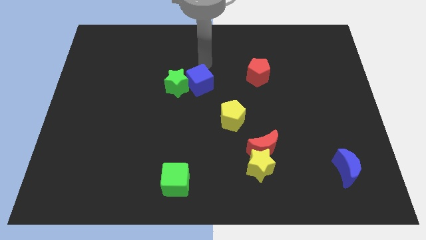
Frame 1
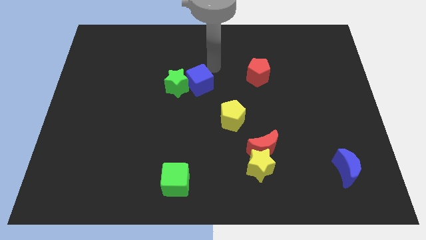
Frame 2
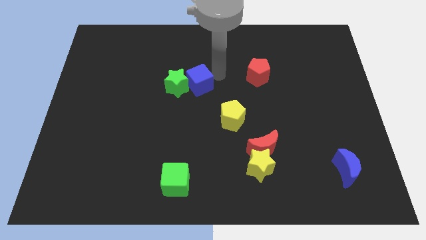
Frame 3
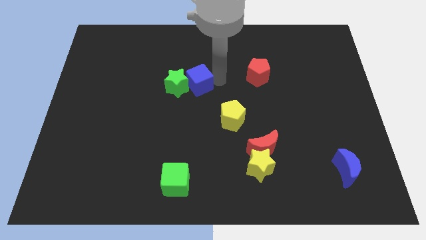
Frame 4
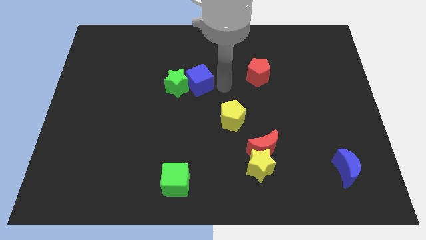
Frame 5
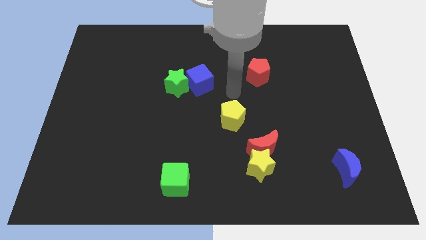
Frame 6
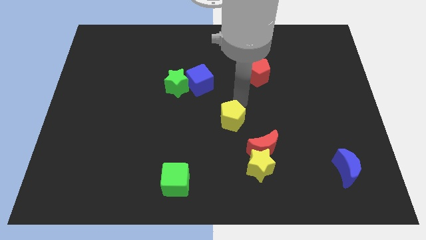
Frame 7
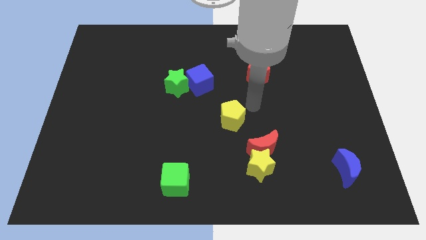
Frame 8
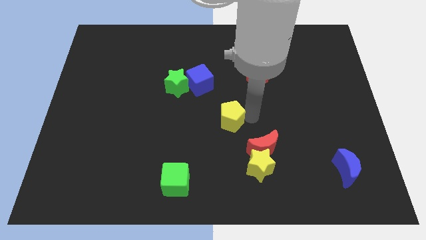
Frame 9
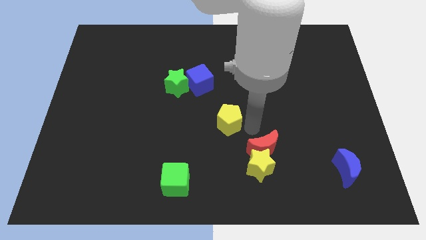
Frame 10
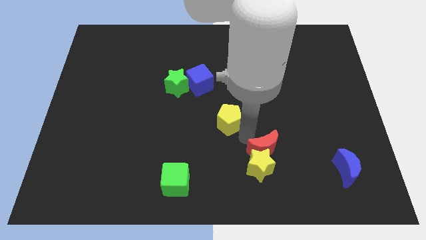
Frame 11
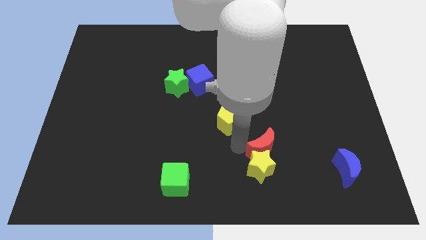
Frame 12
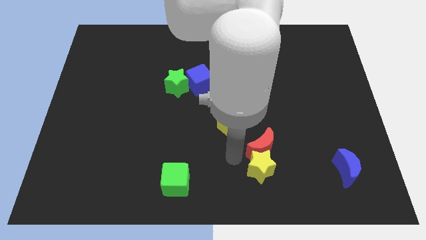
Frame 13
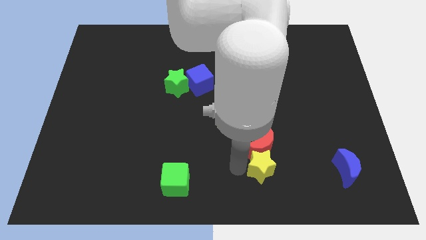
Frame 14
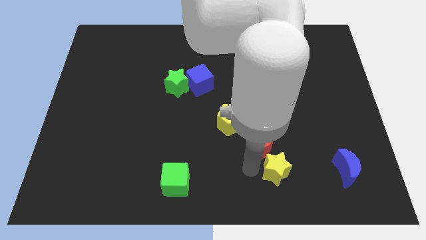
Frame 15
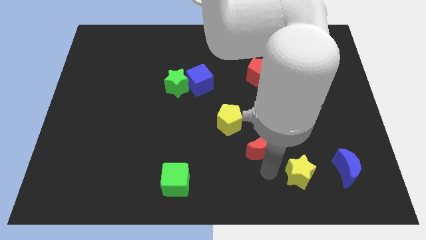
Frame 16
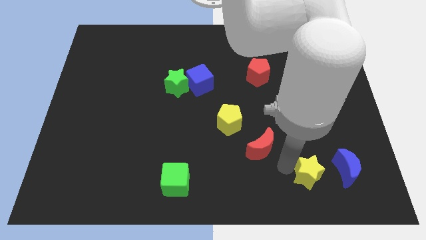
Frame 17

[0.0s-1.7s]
separate the red moon from the yellow star

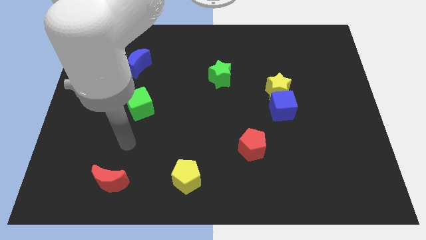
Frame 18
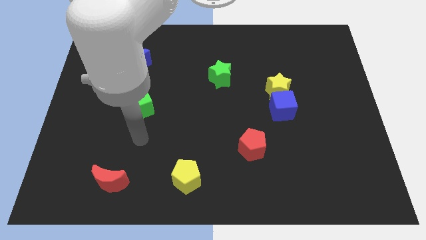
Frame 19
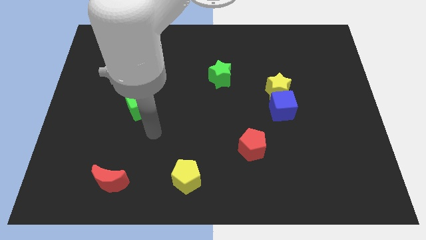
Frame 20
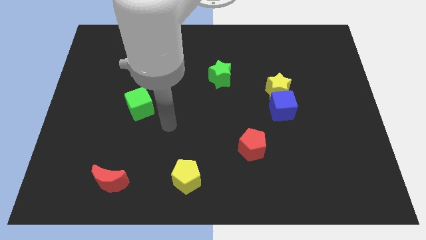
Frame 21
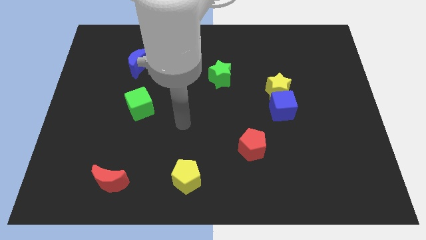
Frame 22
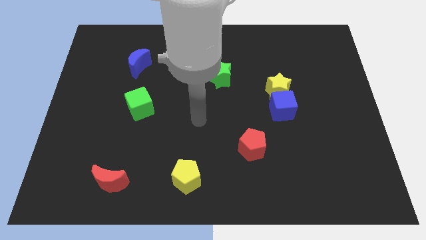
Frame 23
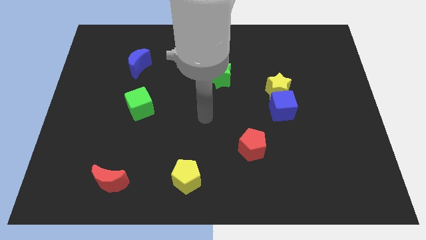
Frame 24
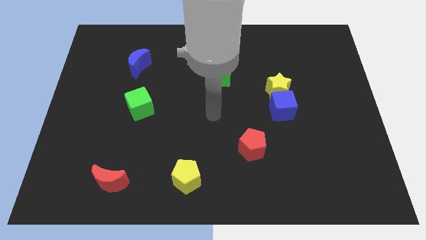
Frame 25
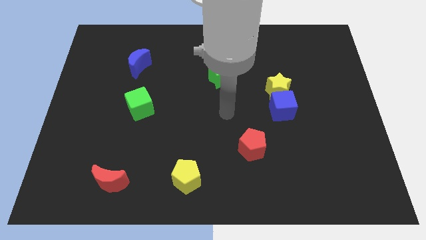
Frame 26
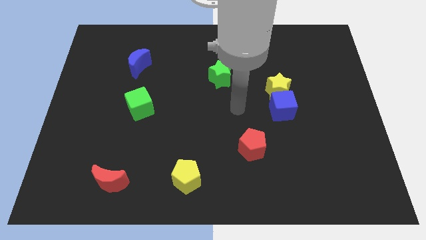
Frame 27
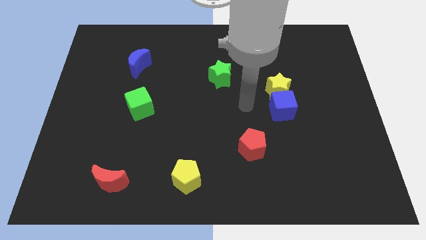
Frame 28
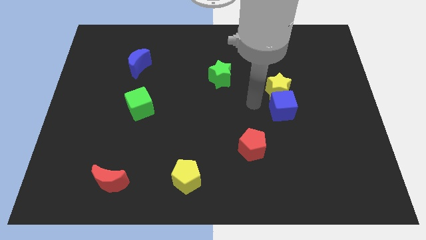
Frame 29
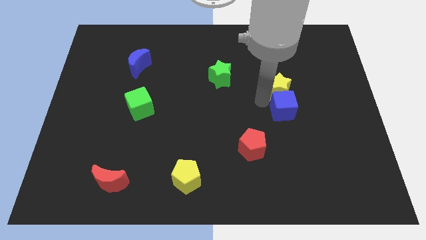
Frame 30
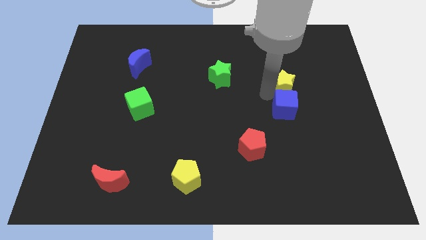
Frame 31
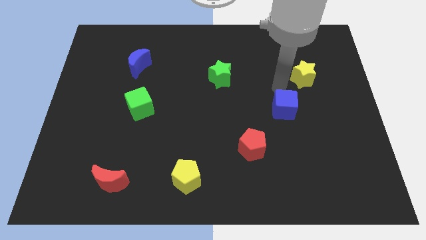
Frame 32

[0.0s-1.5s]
pull the blue cube apart from the yellow star

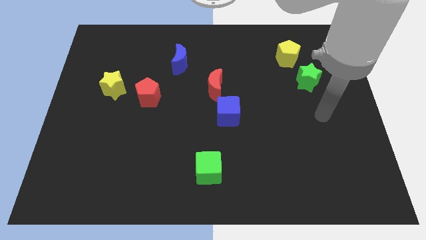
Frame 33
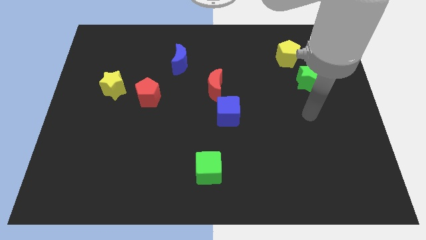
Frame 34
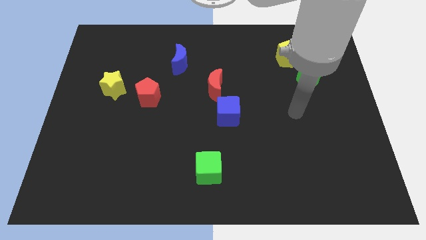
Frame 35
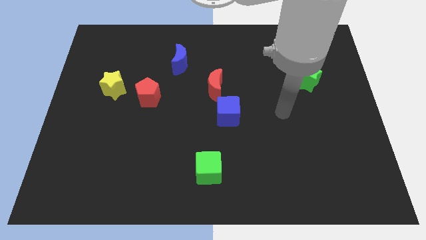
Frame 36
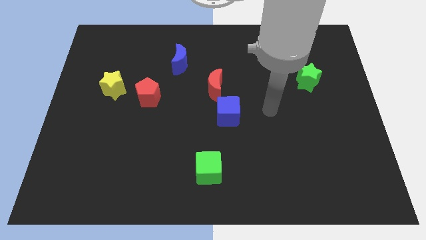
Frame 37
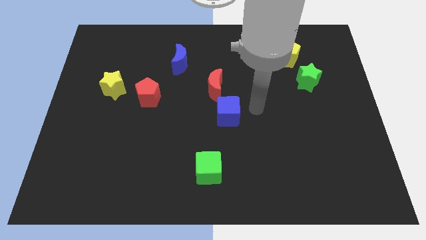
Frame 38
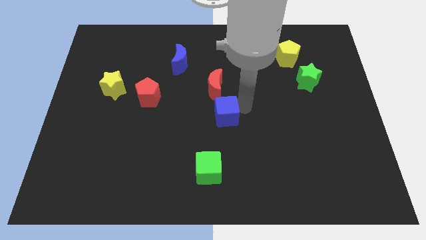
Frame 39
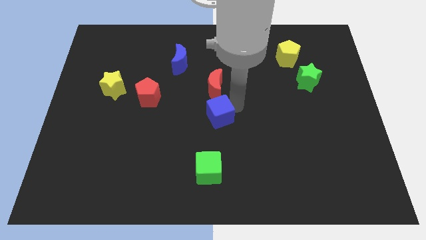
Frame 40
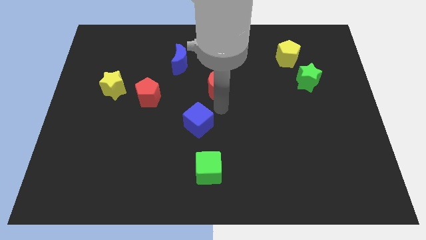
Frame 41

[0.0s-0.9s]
move the red moon away from the blue cube

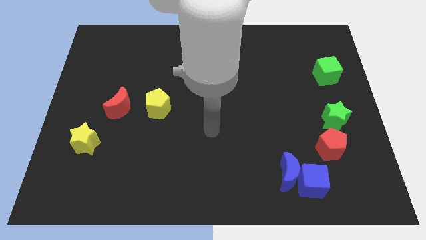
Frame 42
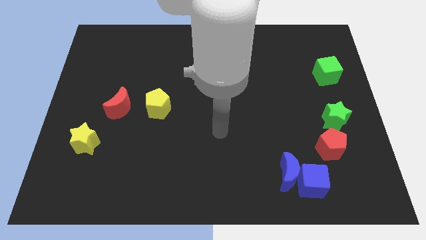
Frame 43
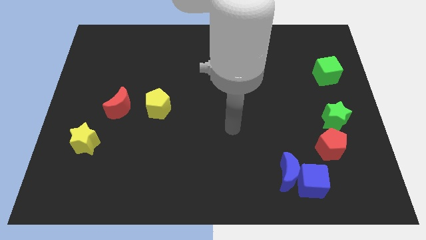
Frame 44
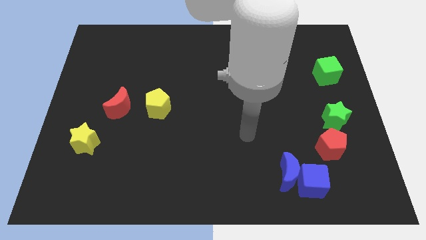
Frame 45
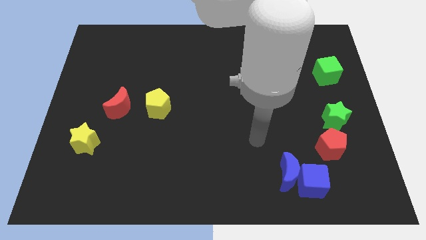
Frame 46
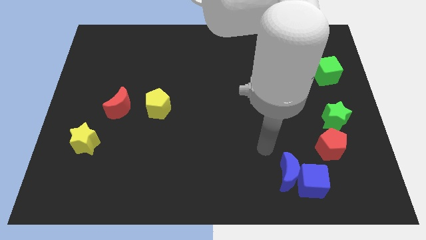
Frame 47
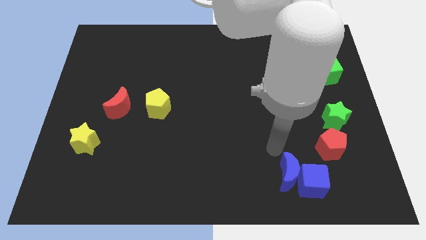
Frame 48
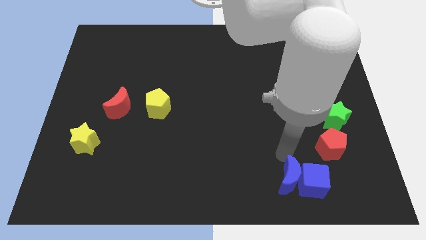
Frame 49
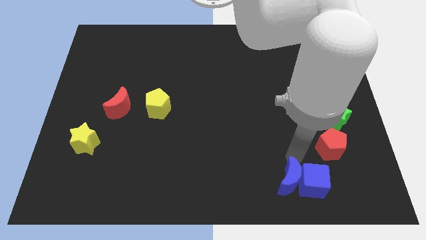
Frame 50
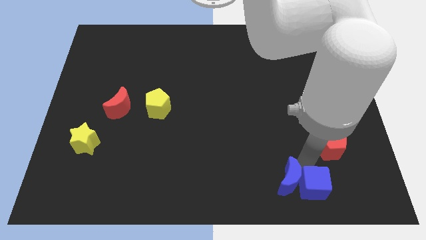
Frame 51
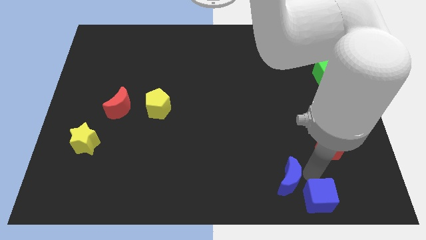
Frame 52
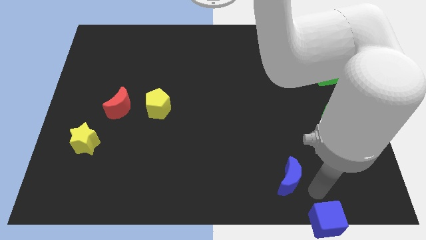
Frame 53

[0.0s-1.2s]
separate the blue moon from the blue cube

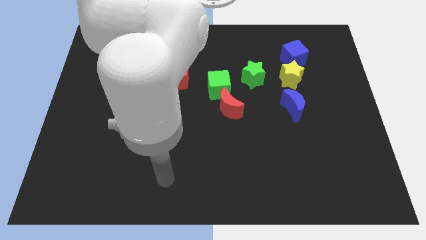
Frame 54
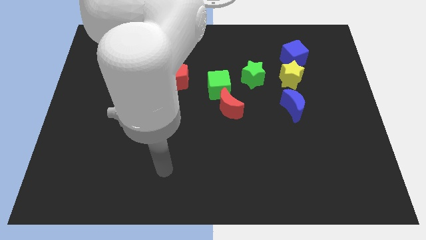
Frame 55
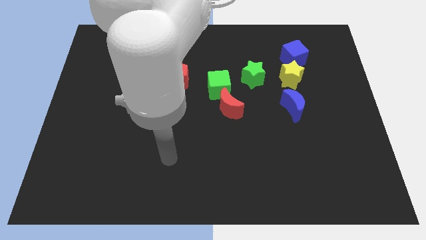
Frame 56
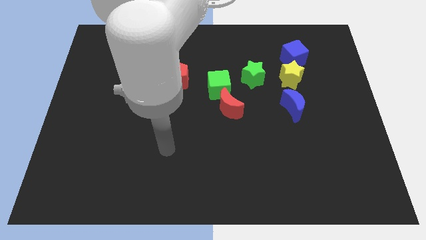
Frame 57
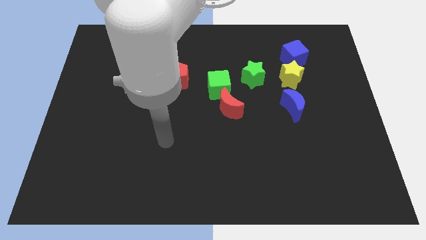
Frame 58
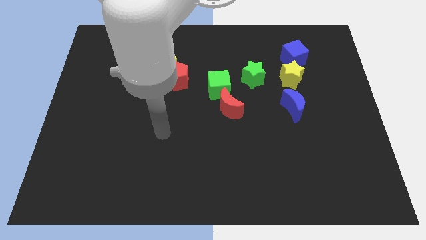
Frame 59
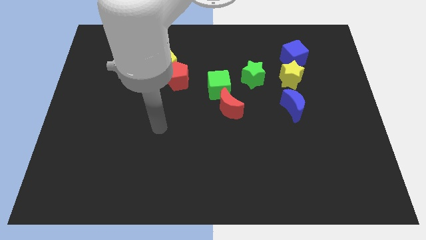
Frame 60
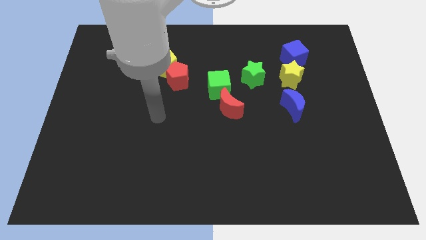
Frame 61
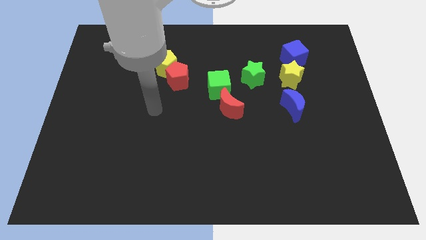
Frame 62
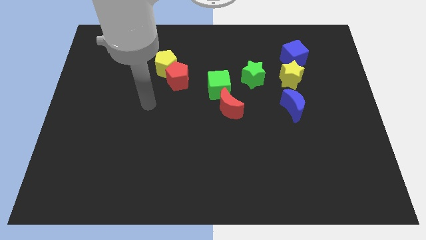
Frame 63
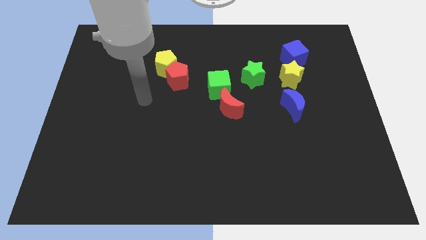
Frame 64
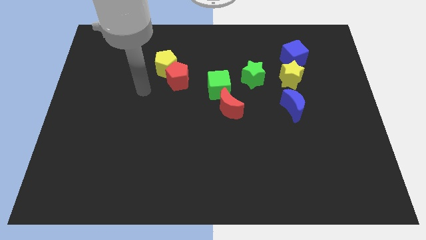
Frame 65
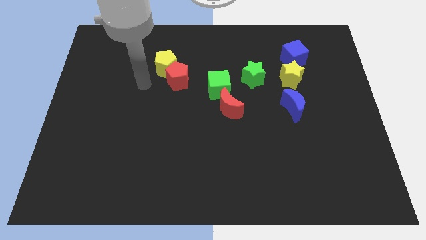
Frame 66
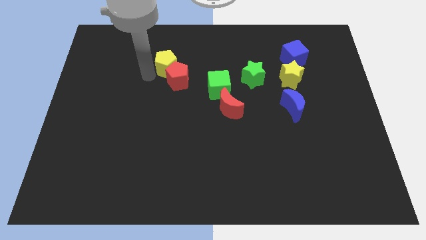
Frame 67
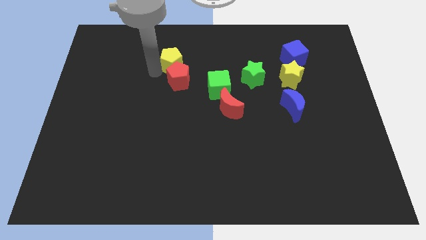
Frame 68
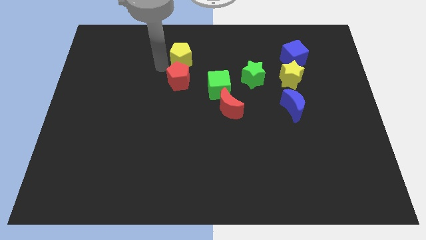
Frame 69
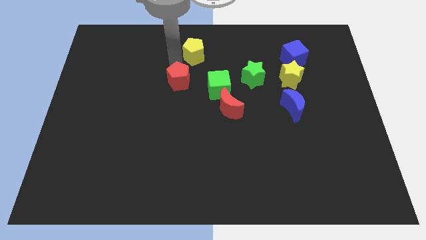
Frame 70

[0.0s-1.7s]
move the red pentagon away from the yellow pentagon

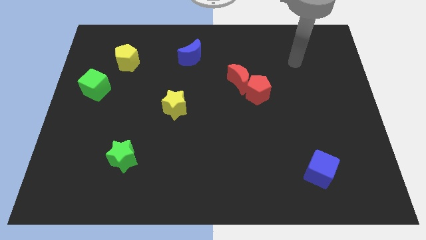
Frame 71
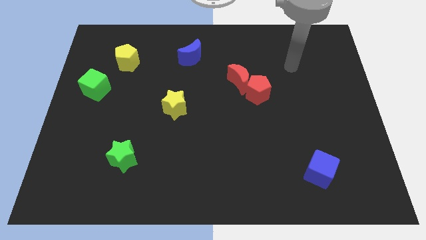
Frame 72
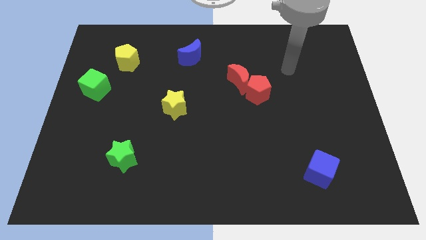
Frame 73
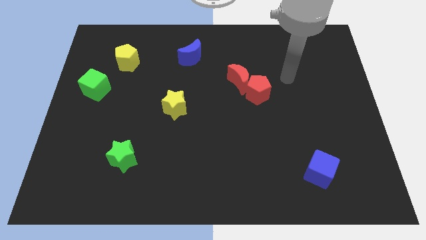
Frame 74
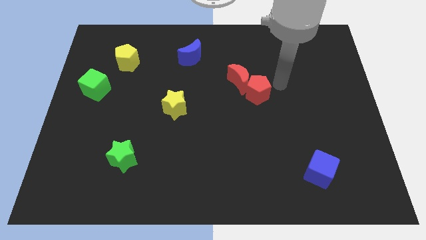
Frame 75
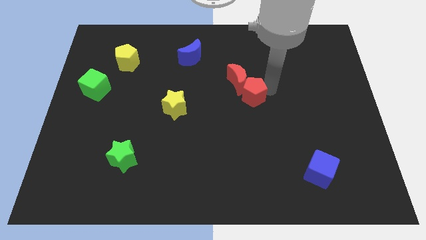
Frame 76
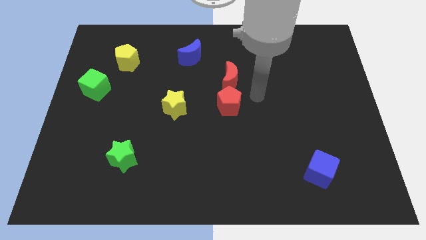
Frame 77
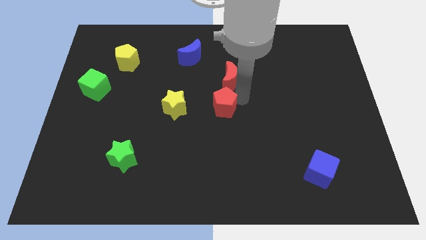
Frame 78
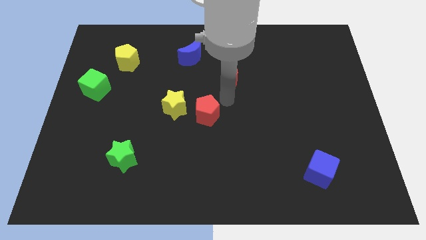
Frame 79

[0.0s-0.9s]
separate the red moon from the red pentagon

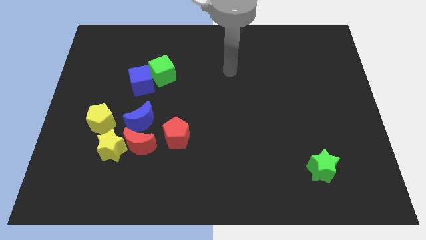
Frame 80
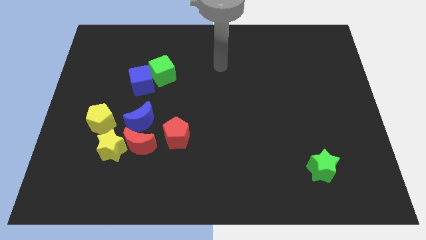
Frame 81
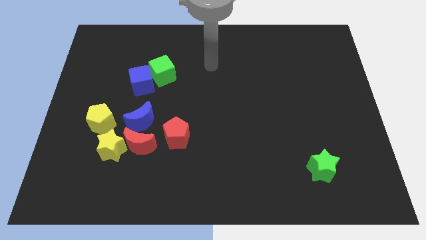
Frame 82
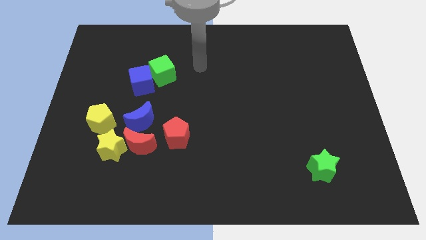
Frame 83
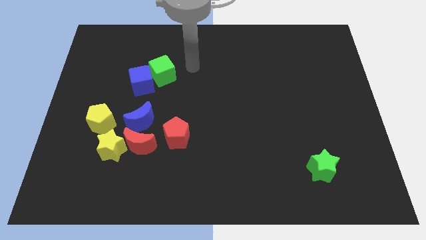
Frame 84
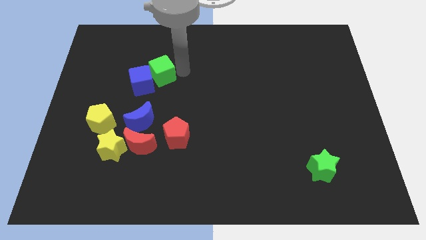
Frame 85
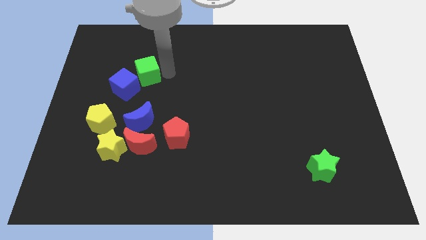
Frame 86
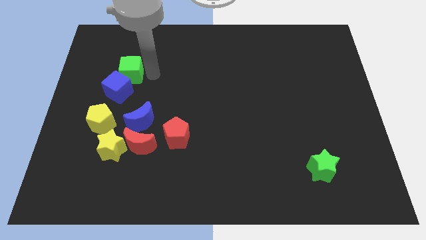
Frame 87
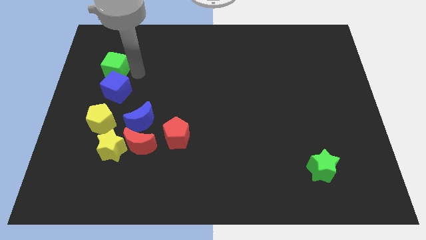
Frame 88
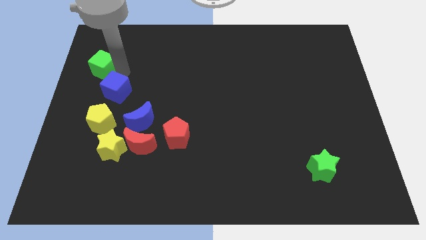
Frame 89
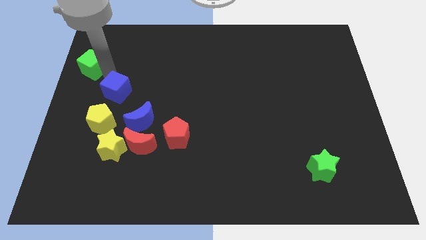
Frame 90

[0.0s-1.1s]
move the blue cube away from the green cube

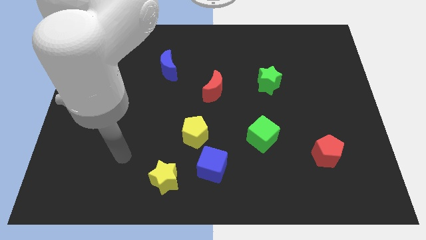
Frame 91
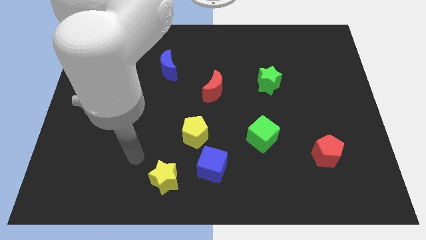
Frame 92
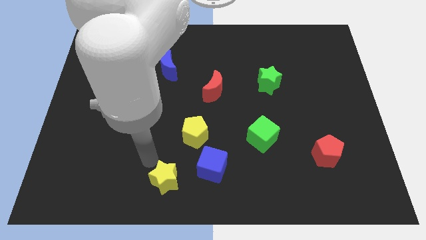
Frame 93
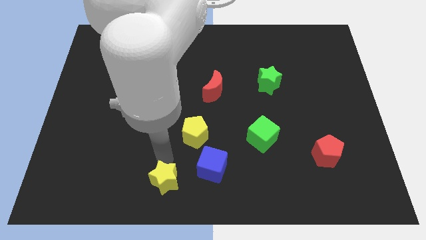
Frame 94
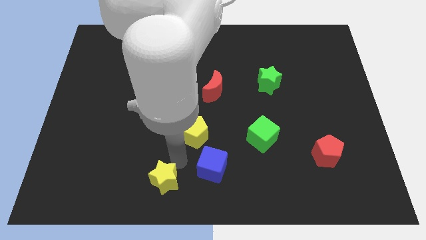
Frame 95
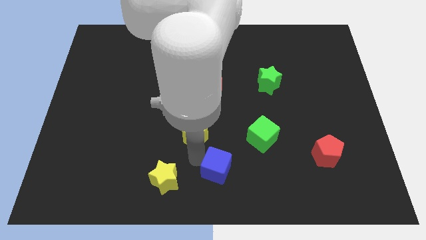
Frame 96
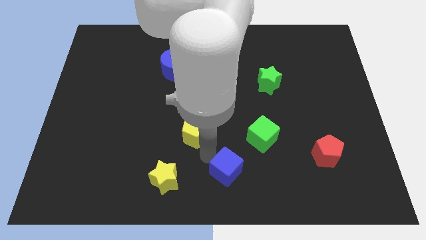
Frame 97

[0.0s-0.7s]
move the yellow pentagon away from the blue cube
